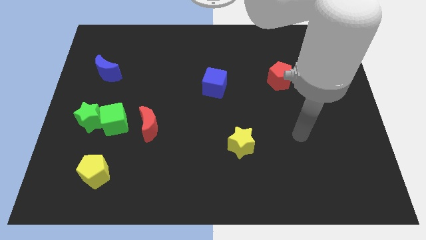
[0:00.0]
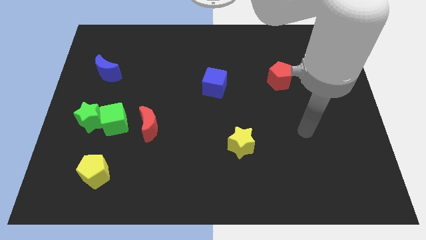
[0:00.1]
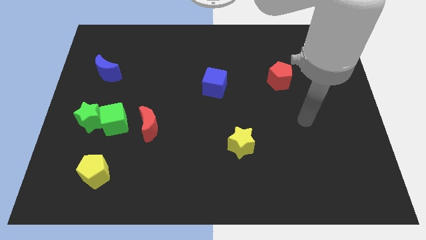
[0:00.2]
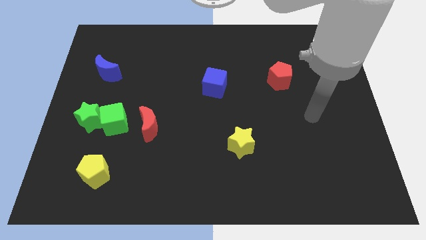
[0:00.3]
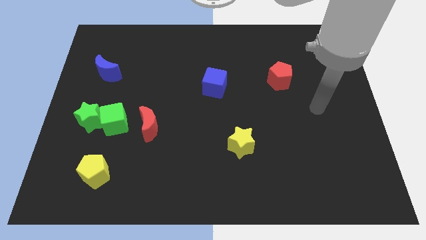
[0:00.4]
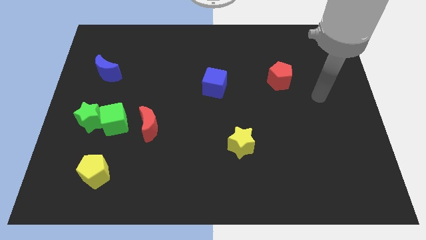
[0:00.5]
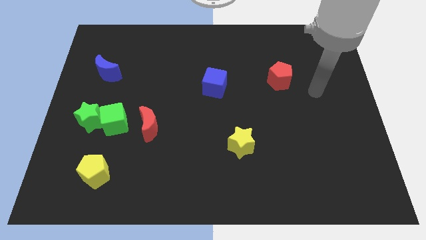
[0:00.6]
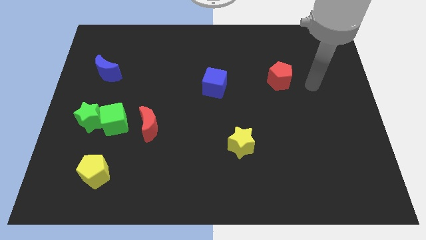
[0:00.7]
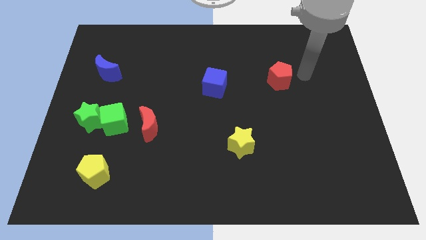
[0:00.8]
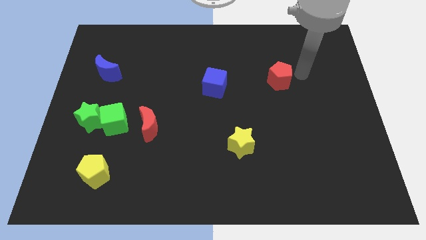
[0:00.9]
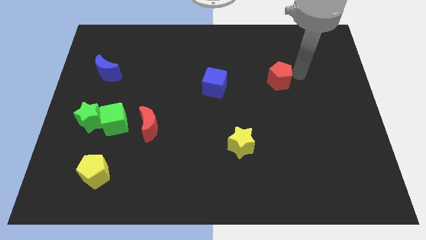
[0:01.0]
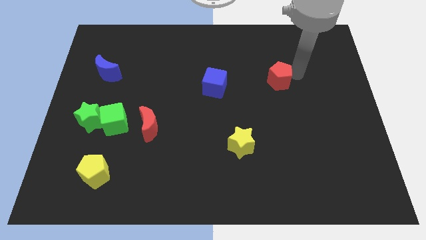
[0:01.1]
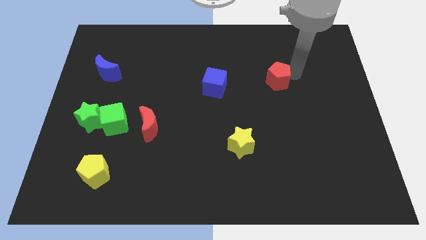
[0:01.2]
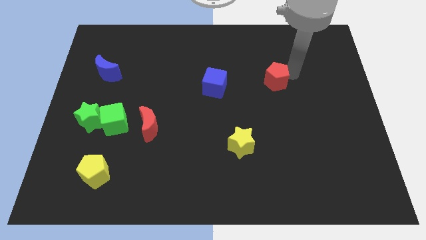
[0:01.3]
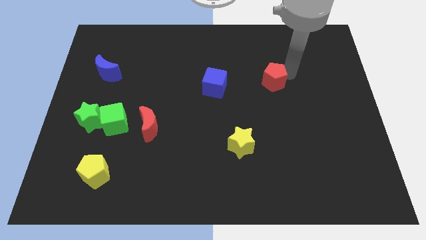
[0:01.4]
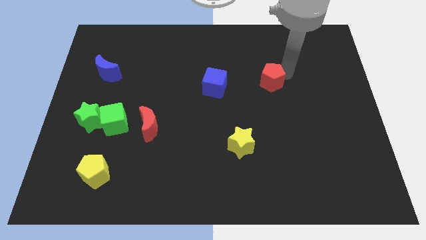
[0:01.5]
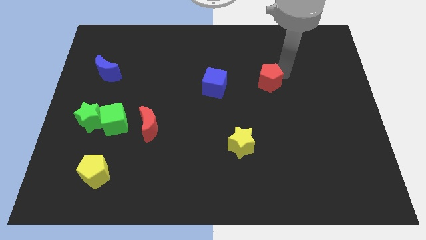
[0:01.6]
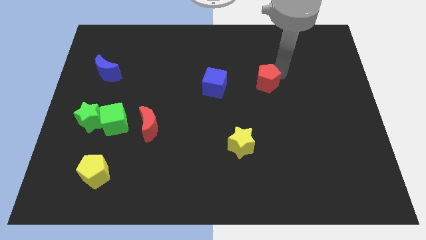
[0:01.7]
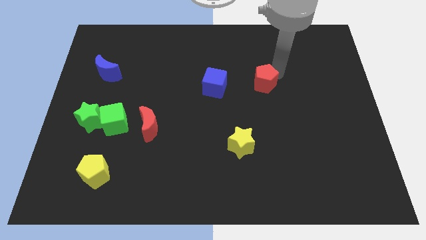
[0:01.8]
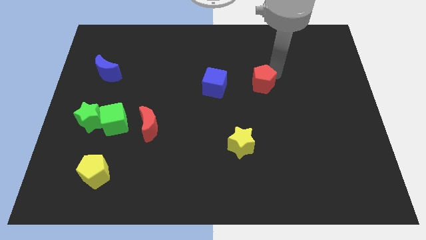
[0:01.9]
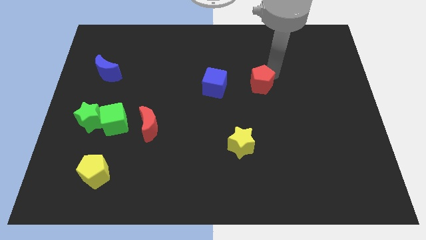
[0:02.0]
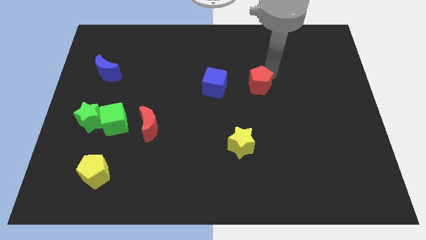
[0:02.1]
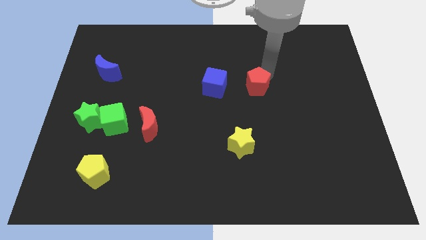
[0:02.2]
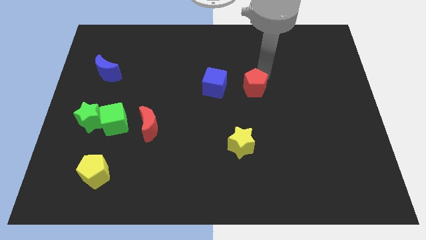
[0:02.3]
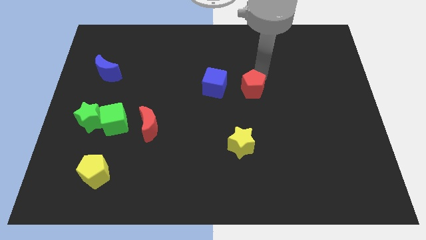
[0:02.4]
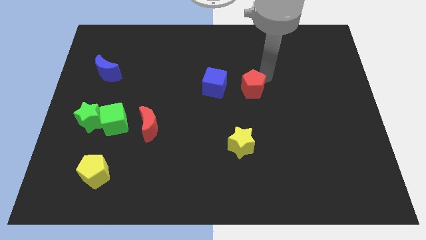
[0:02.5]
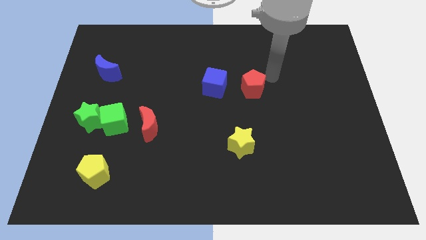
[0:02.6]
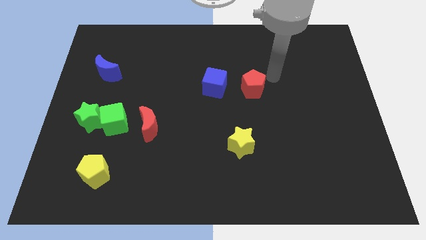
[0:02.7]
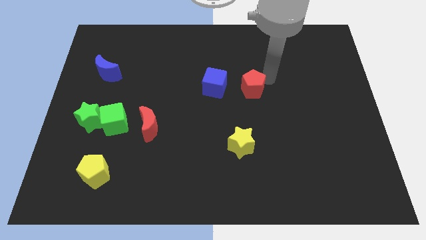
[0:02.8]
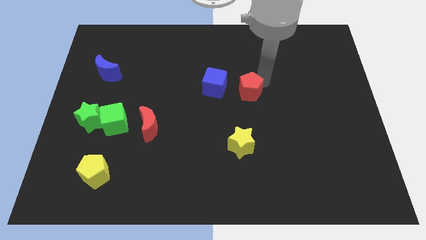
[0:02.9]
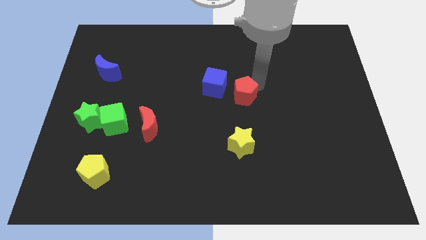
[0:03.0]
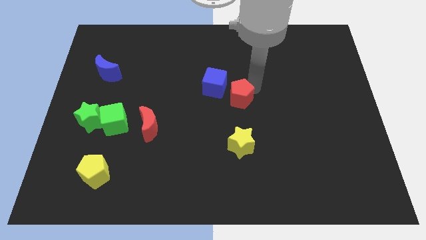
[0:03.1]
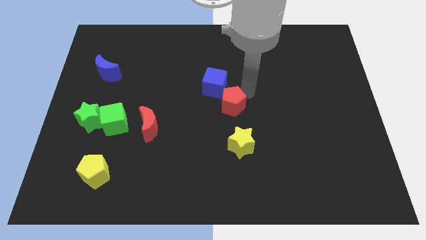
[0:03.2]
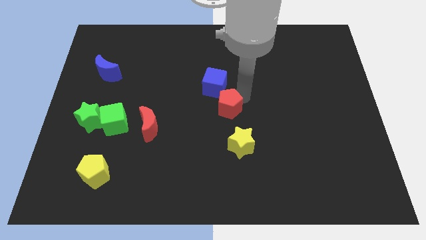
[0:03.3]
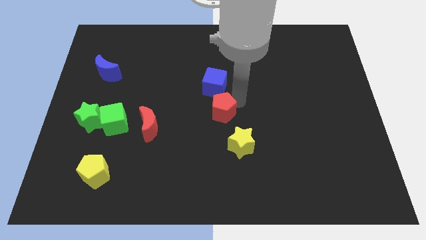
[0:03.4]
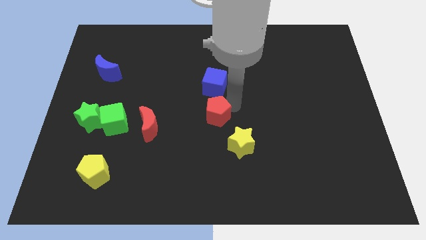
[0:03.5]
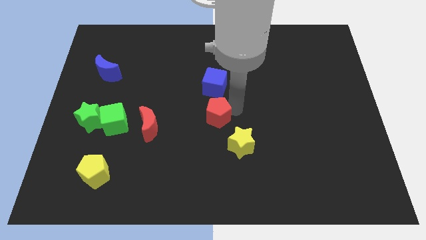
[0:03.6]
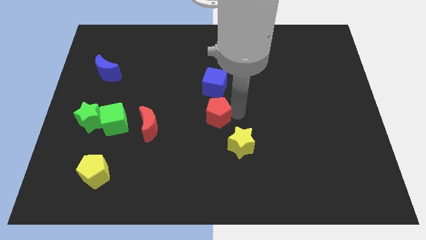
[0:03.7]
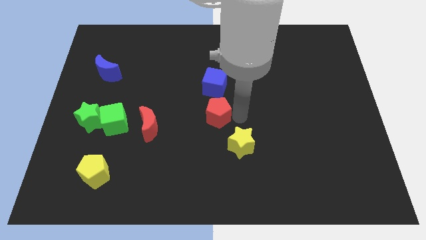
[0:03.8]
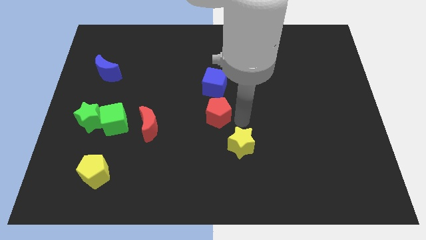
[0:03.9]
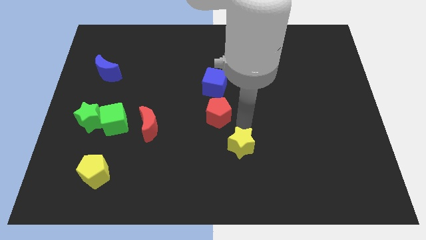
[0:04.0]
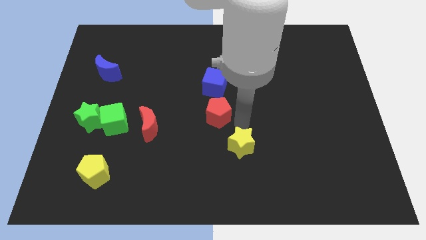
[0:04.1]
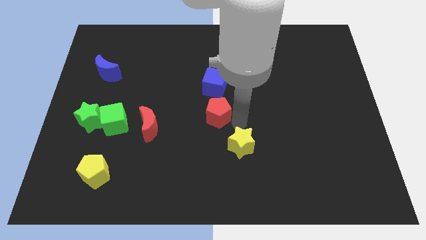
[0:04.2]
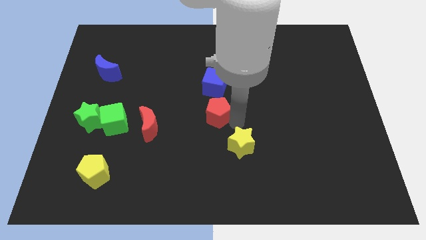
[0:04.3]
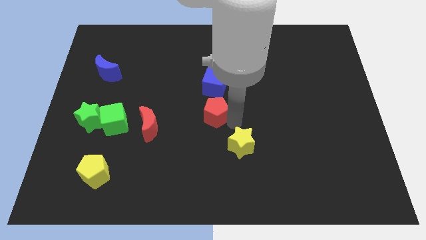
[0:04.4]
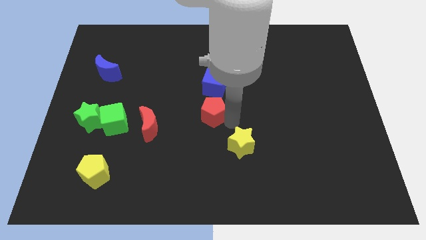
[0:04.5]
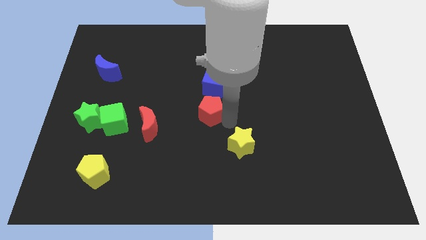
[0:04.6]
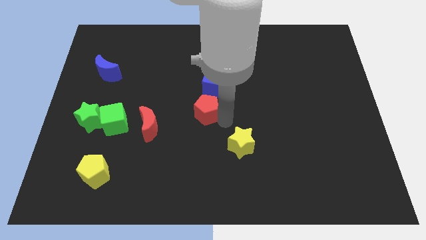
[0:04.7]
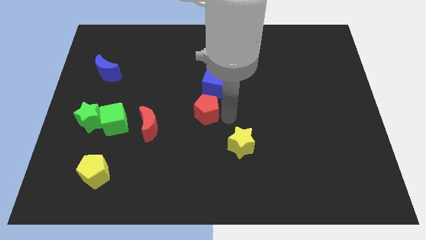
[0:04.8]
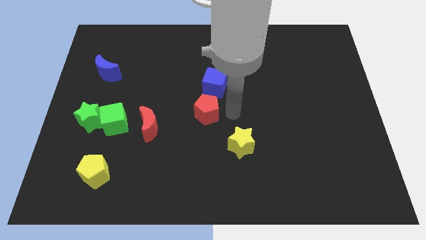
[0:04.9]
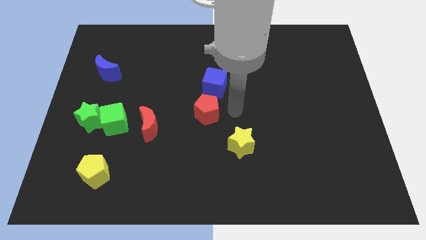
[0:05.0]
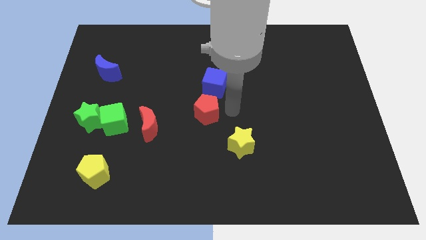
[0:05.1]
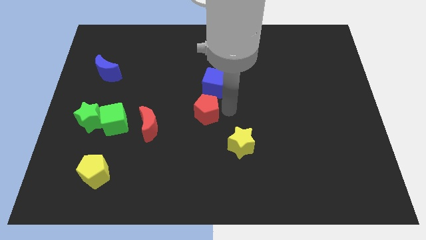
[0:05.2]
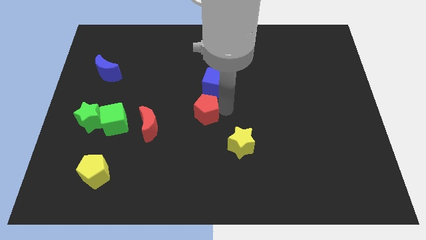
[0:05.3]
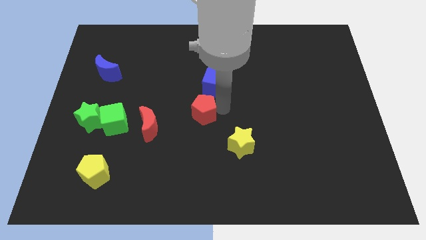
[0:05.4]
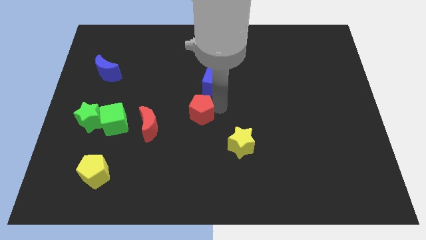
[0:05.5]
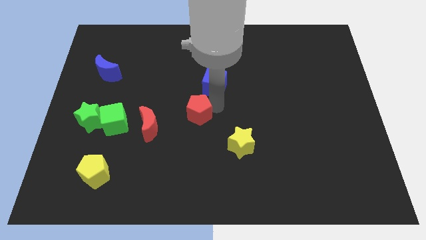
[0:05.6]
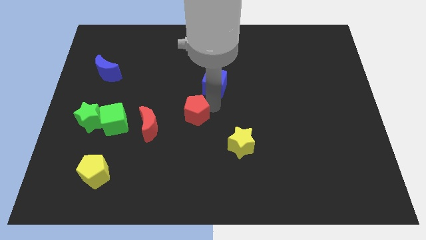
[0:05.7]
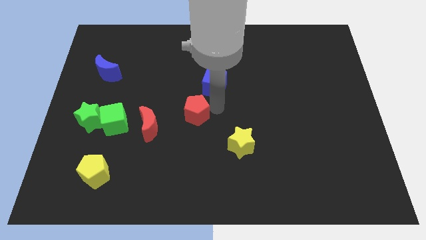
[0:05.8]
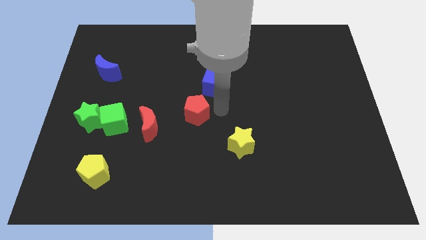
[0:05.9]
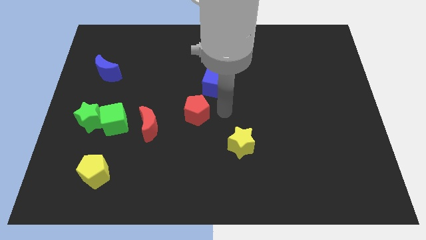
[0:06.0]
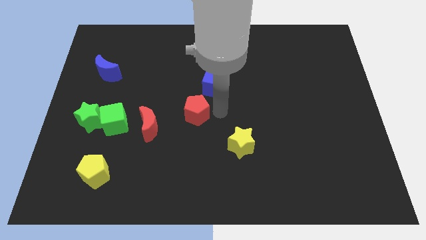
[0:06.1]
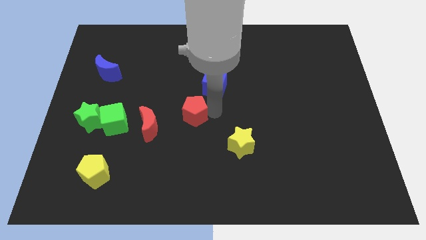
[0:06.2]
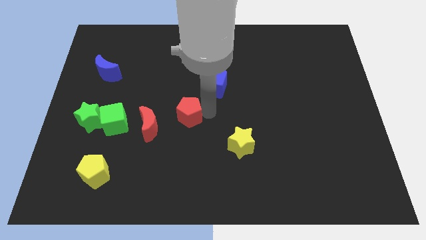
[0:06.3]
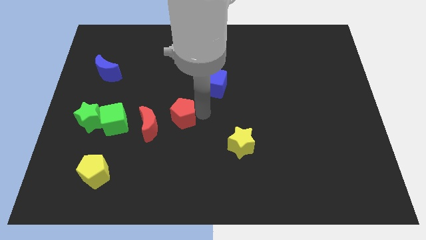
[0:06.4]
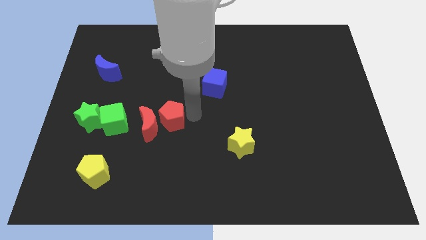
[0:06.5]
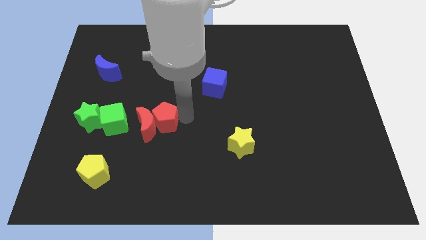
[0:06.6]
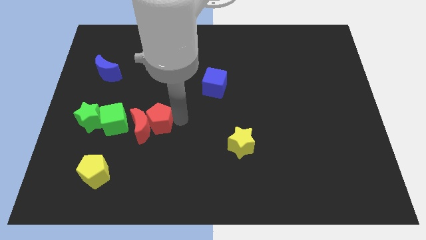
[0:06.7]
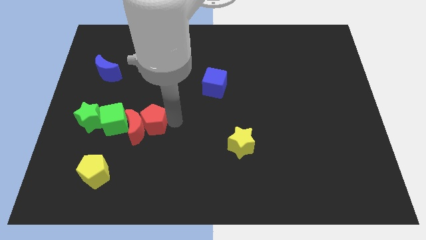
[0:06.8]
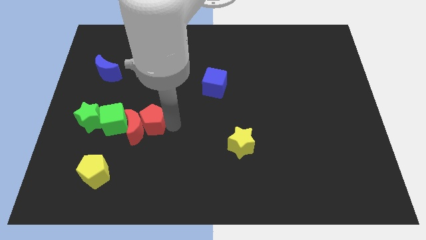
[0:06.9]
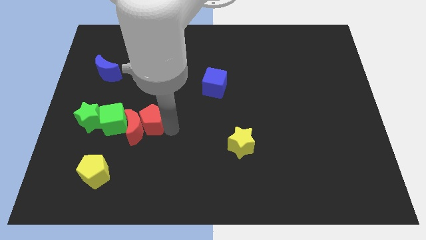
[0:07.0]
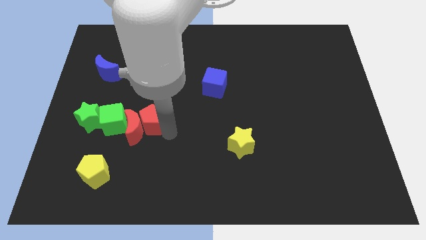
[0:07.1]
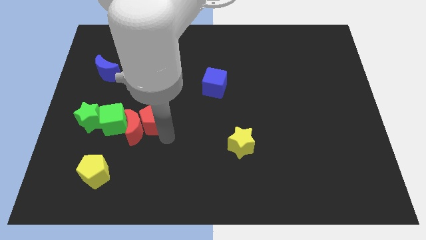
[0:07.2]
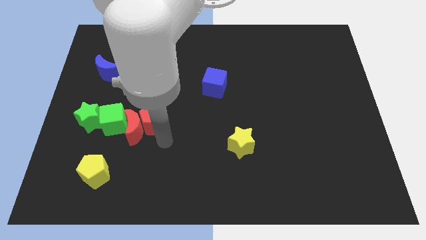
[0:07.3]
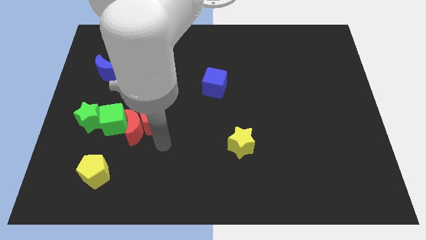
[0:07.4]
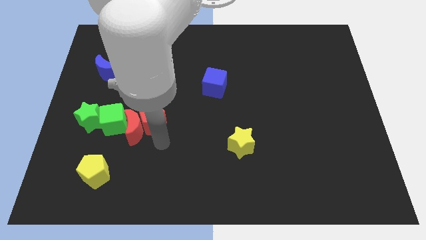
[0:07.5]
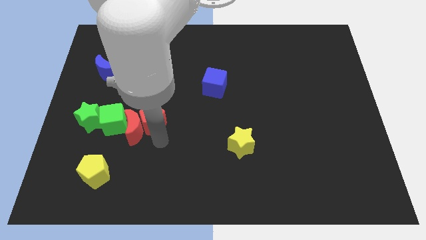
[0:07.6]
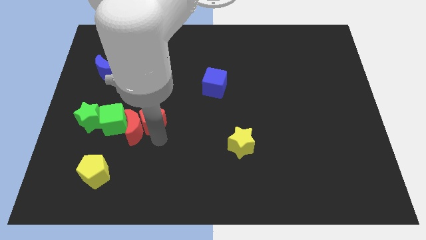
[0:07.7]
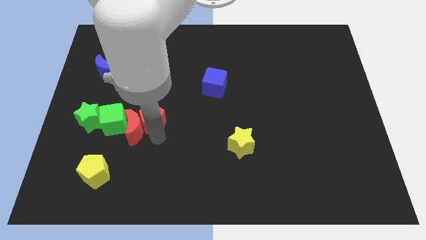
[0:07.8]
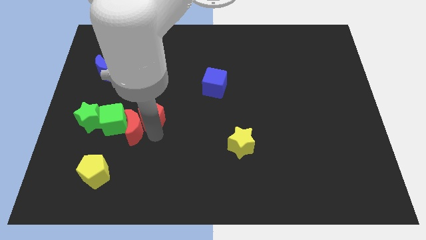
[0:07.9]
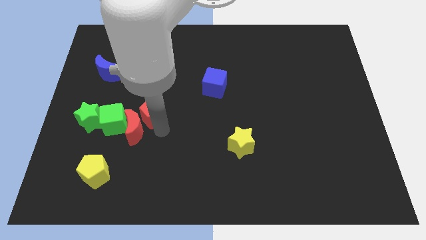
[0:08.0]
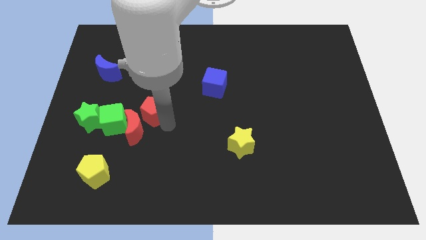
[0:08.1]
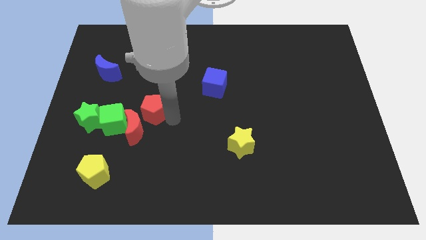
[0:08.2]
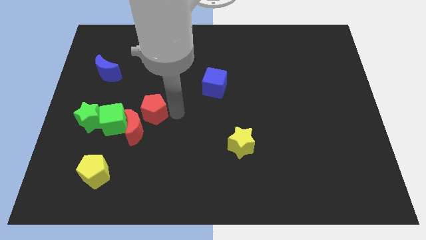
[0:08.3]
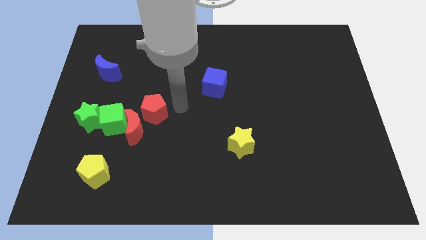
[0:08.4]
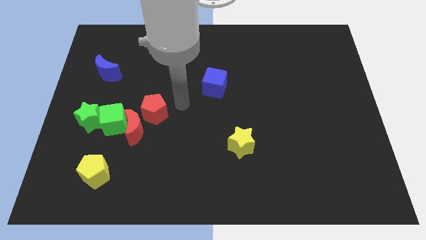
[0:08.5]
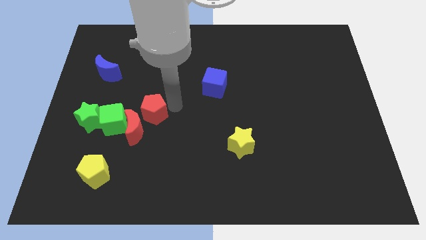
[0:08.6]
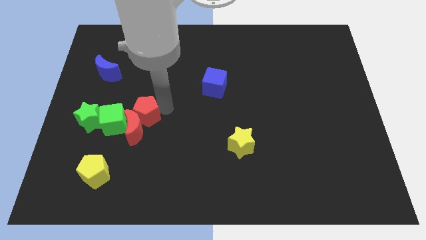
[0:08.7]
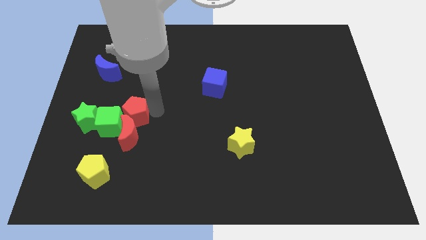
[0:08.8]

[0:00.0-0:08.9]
push the red pentagon towards the green cube
